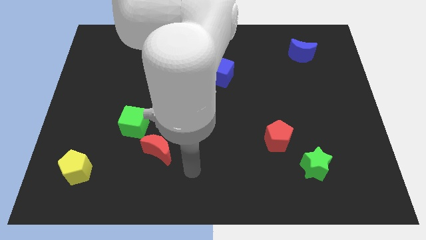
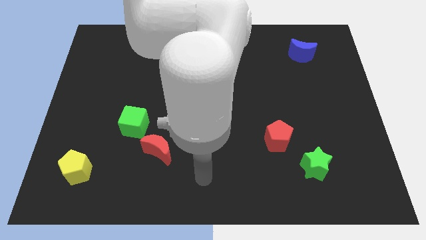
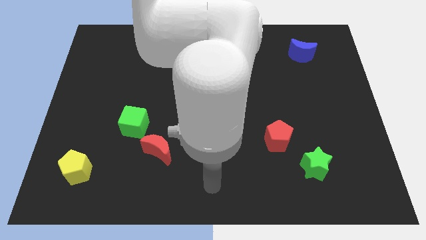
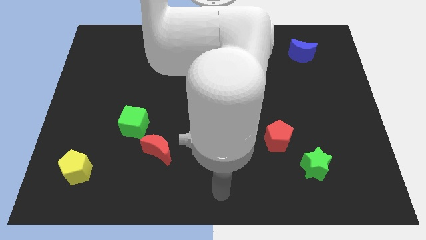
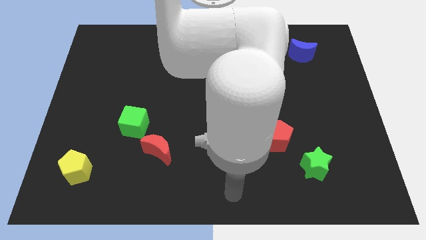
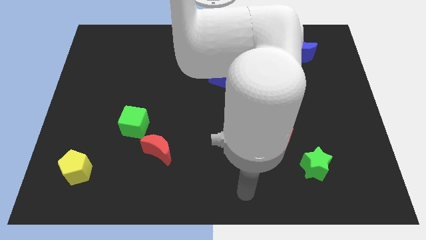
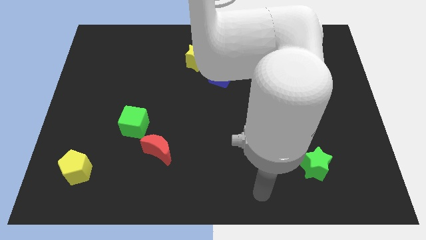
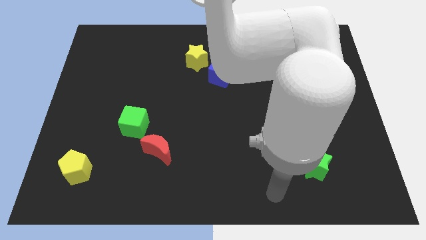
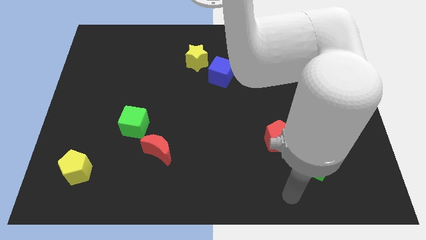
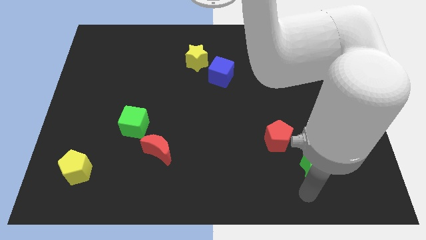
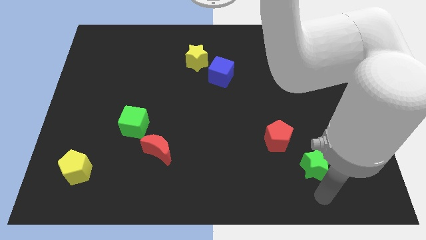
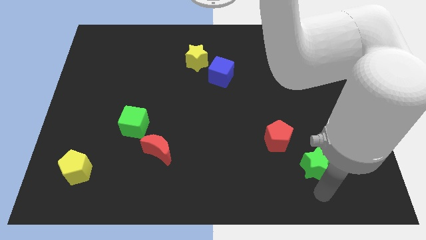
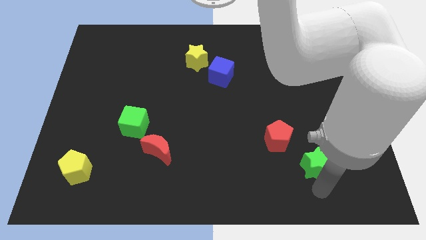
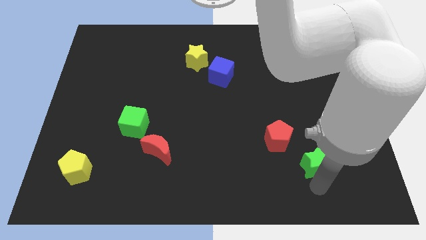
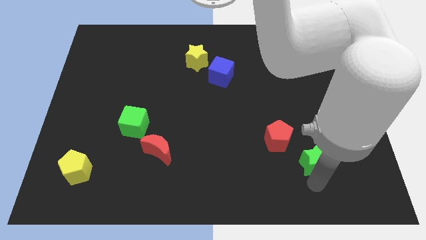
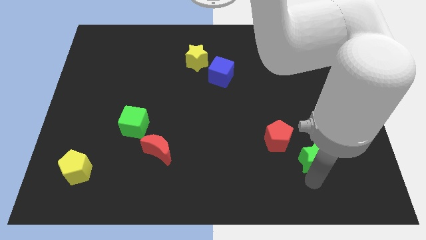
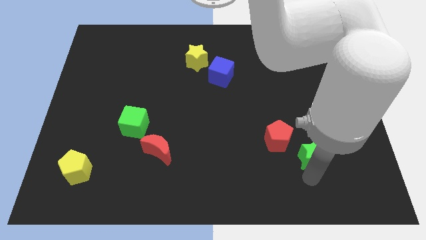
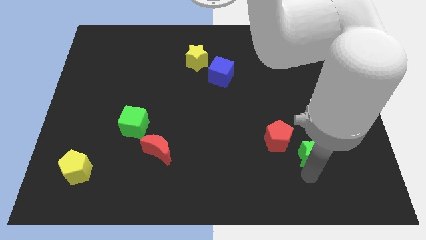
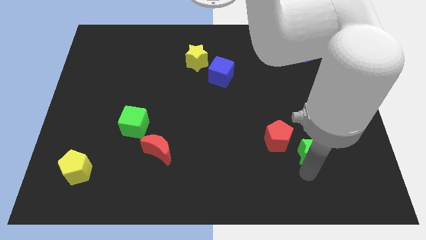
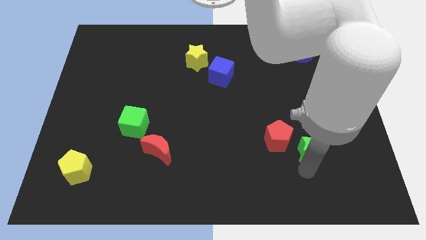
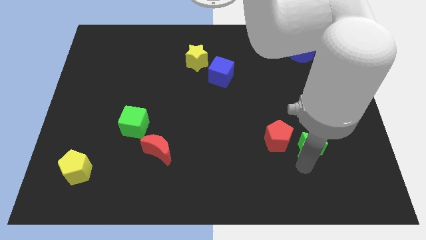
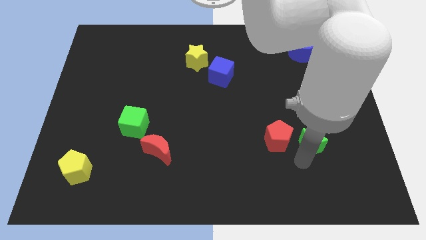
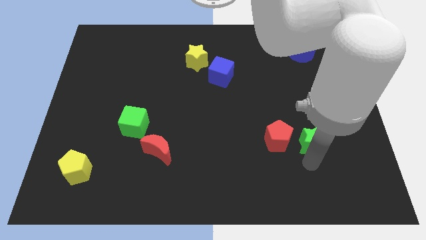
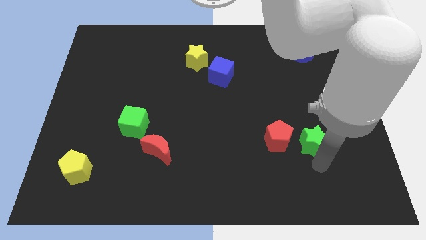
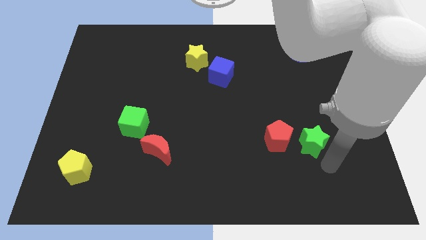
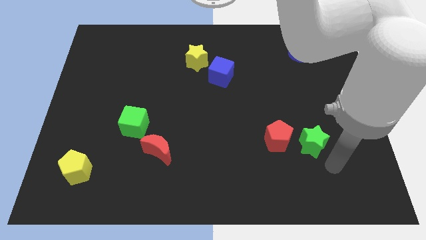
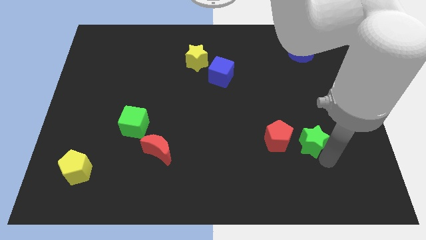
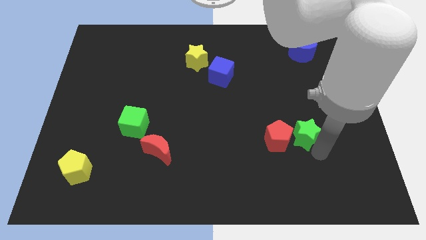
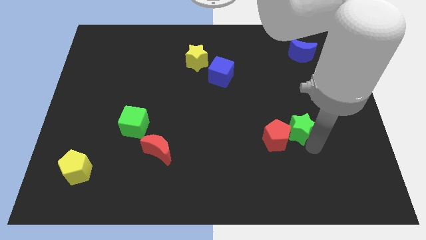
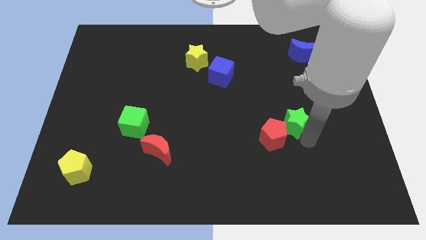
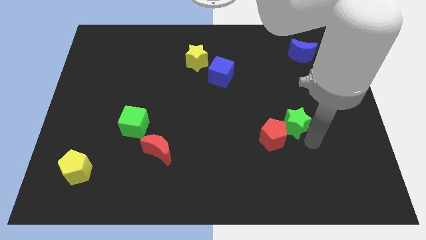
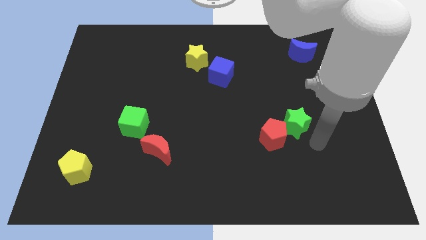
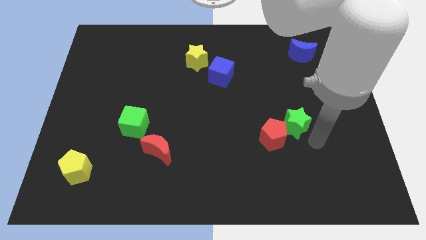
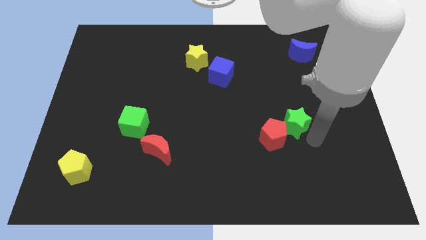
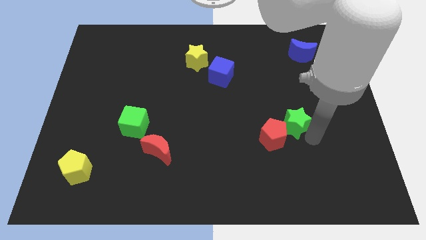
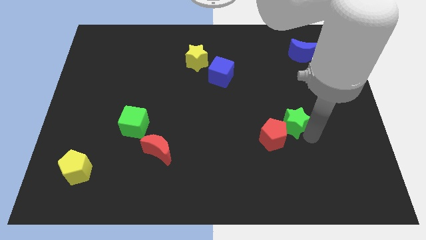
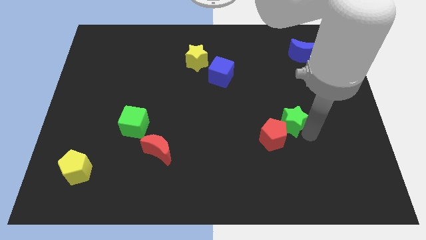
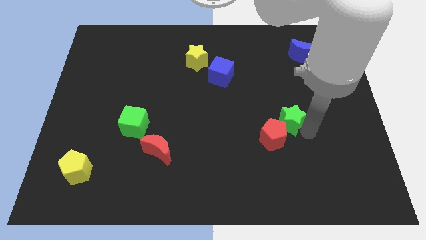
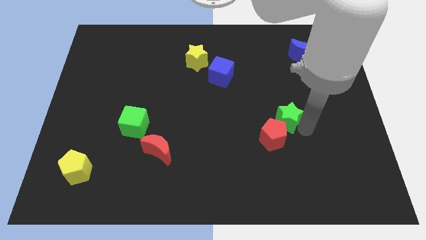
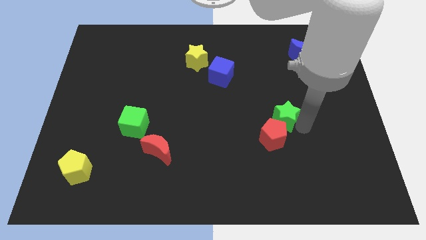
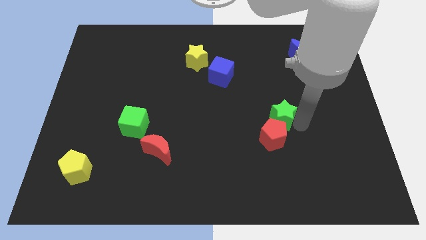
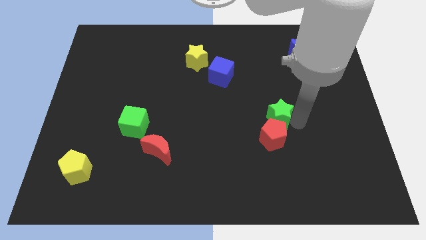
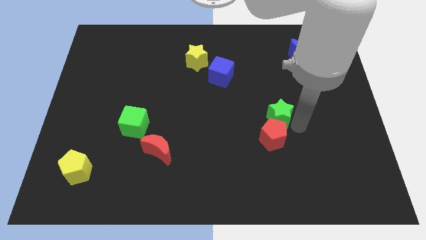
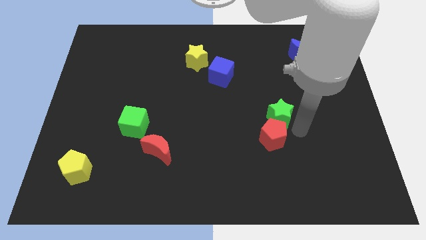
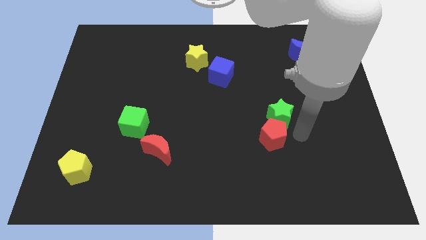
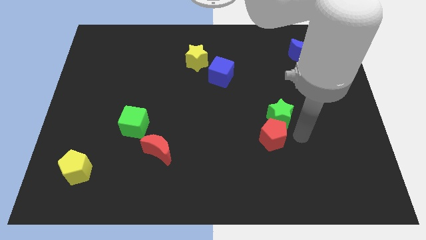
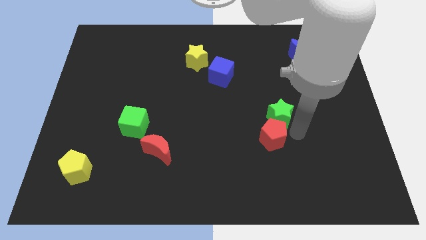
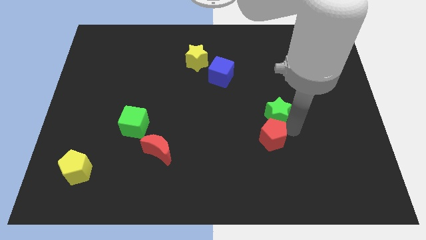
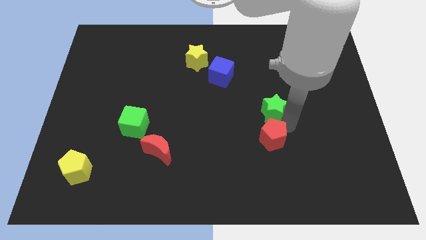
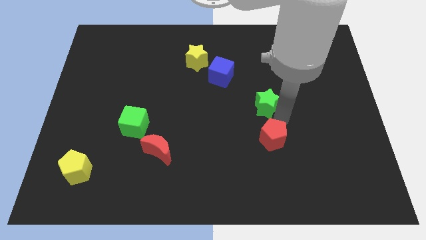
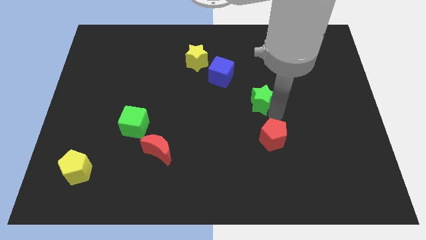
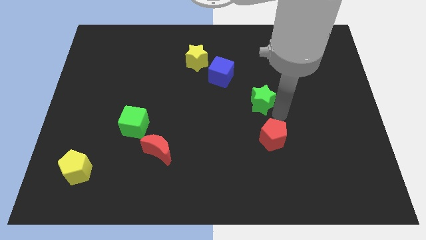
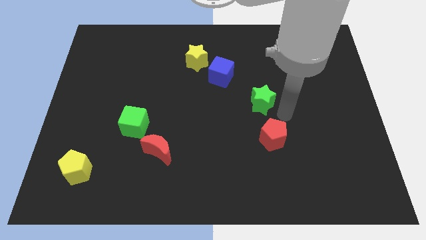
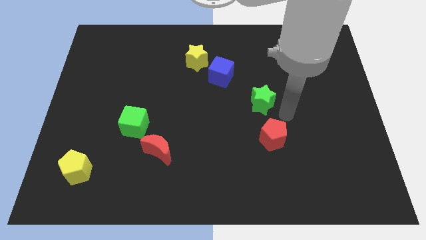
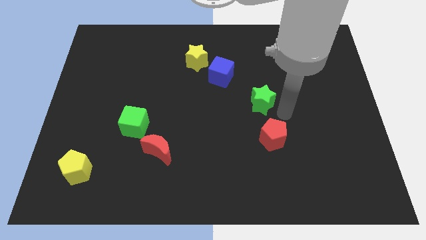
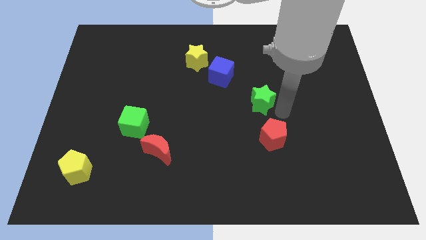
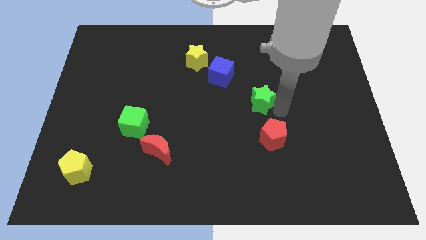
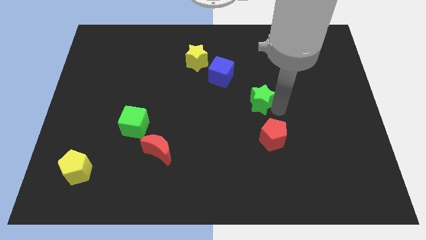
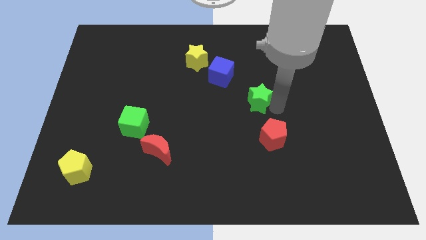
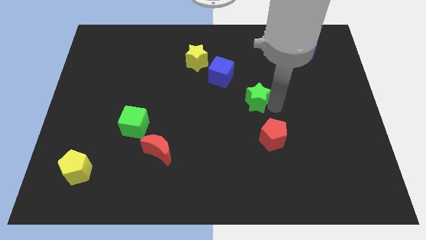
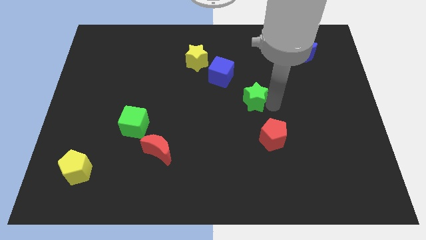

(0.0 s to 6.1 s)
move the green star upwards and to the left diagonally

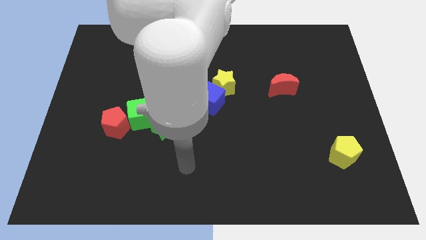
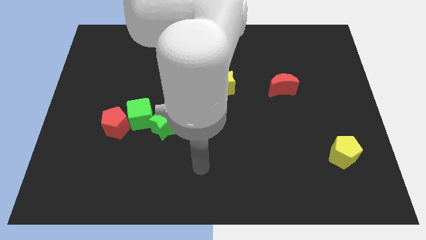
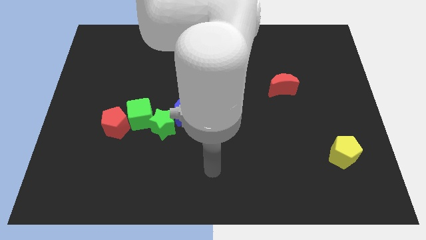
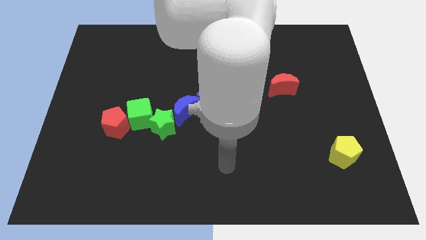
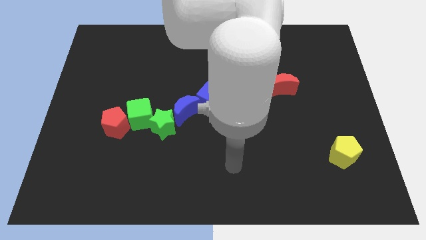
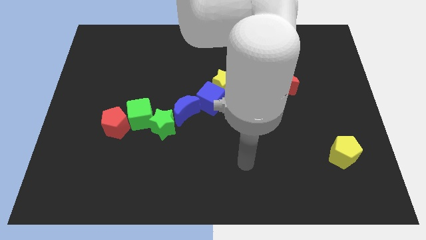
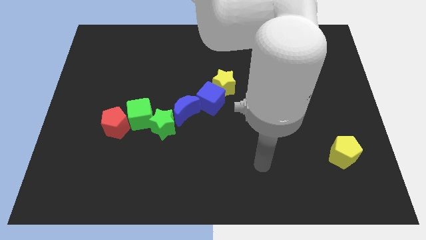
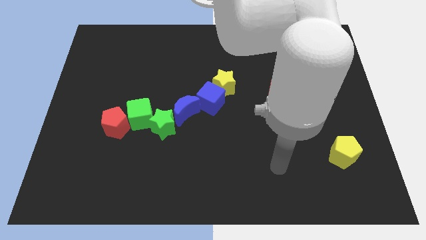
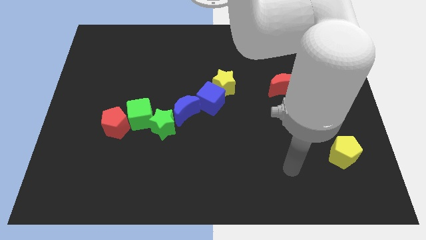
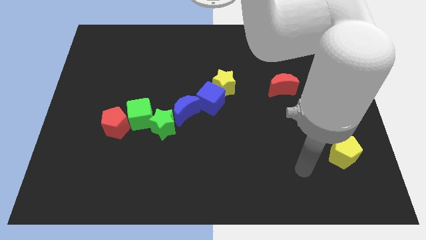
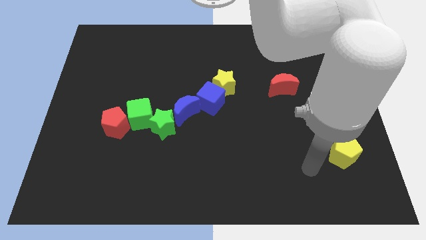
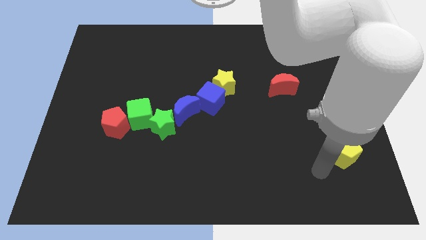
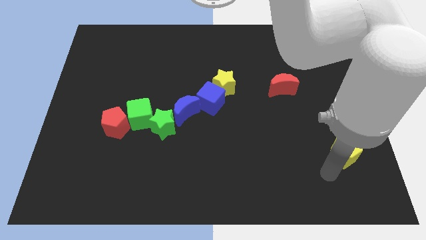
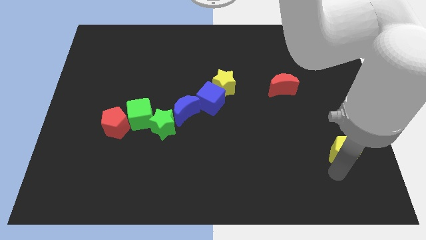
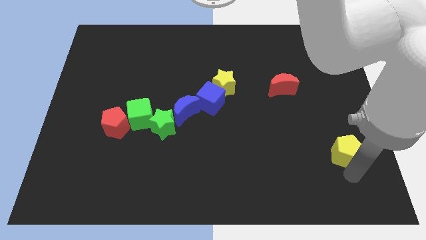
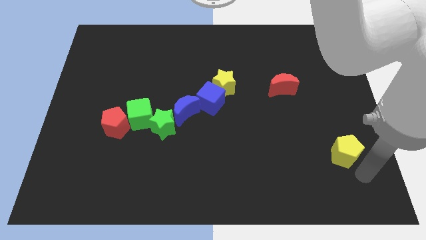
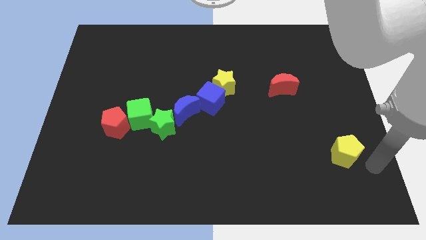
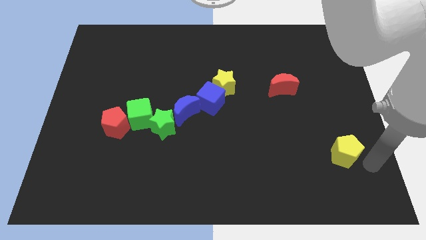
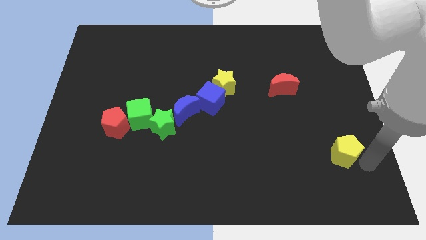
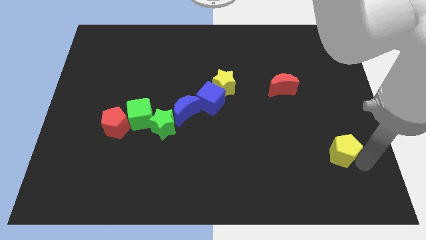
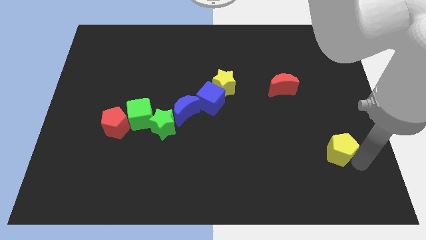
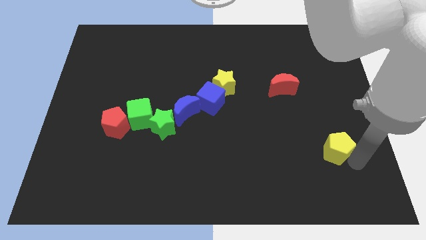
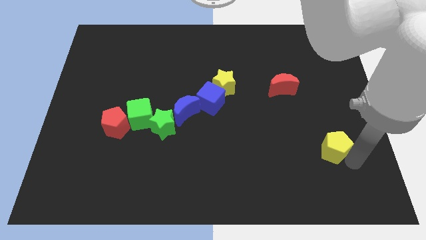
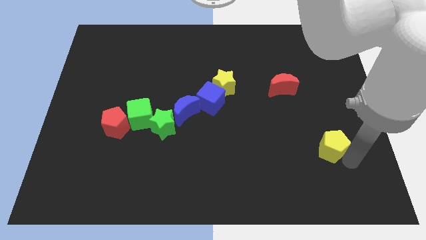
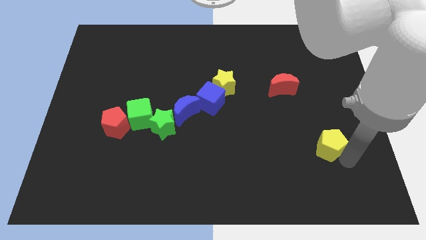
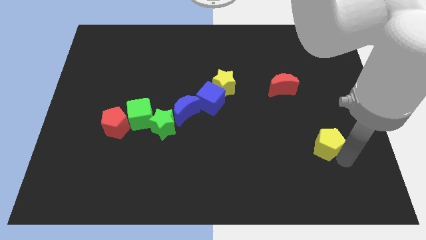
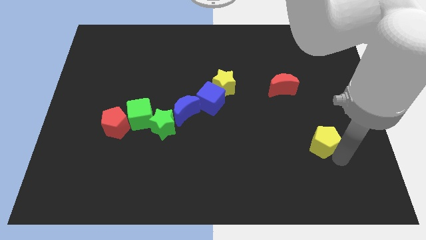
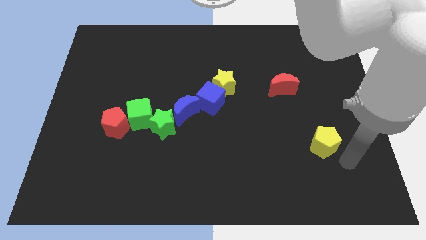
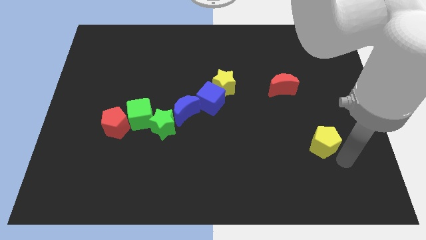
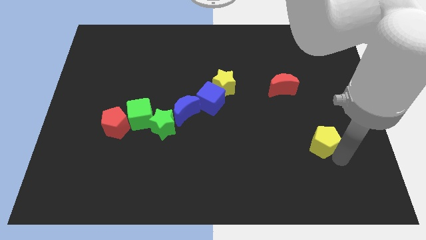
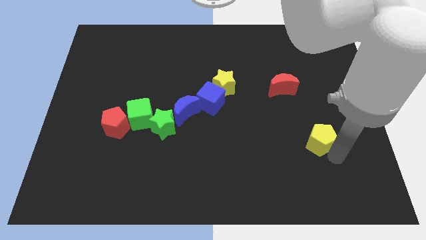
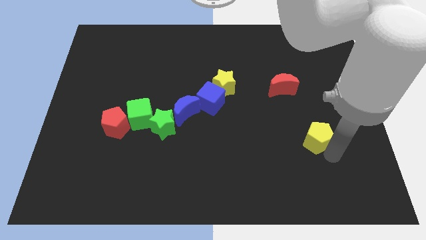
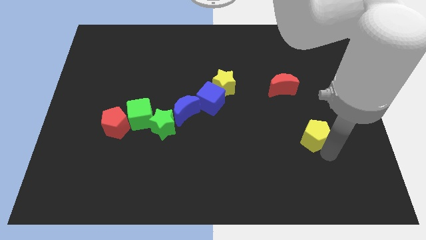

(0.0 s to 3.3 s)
slightly slide the yellow pentagon up and left diagonally
